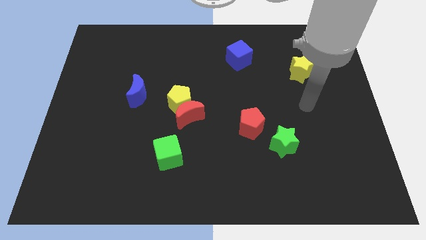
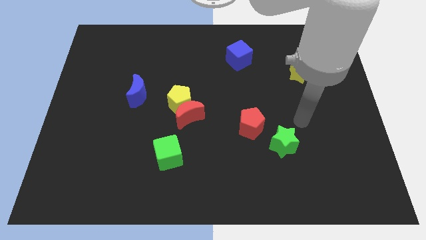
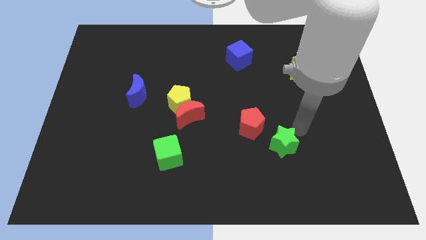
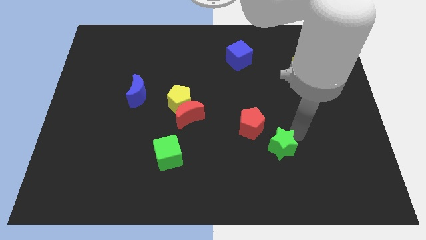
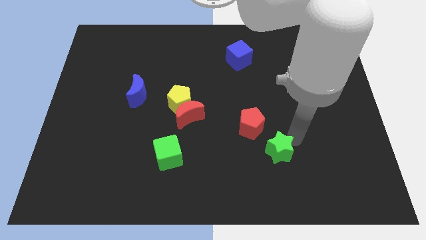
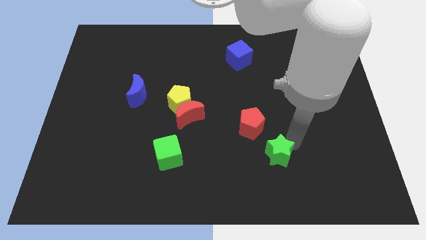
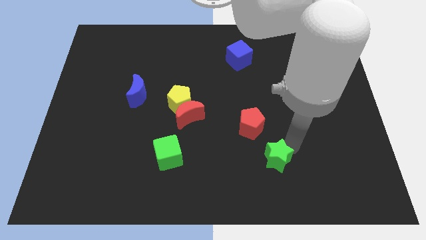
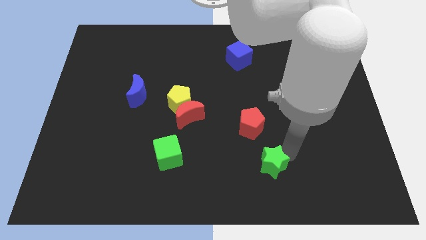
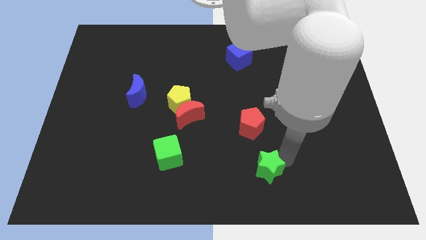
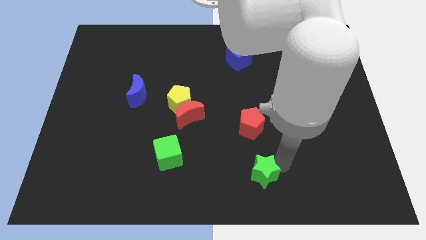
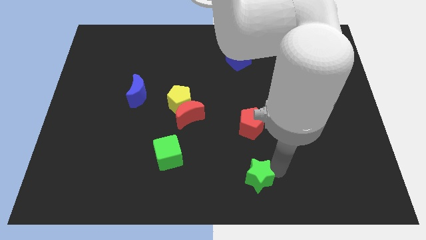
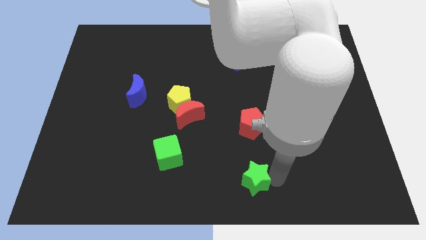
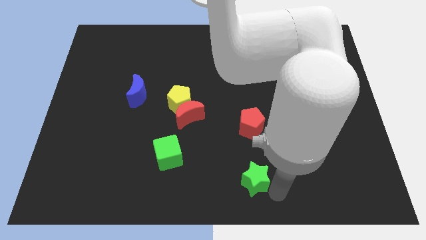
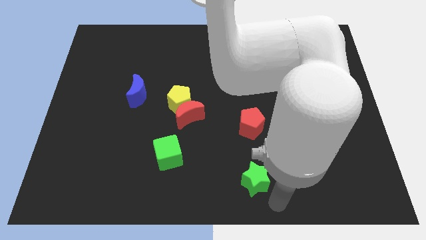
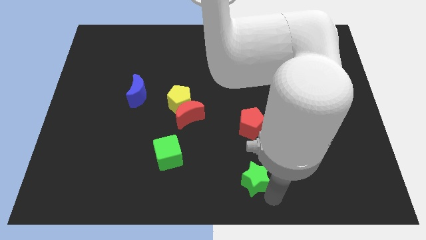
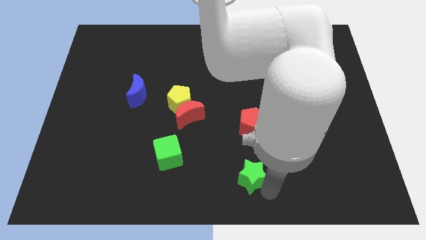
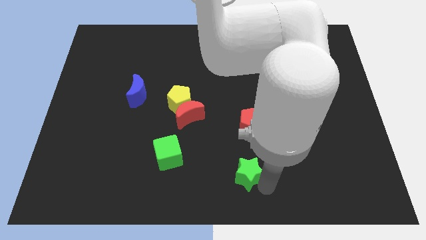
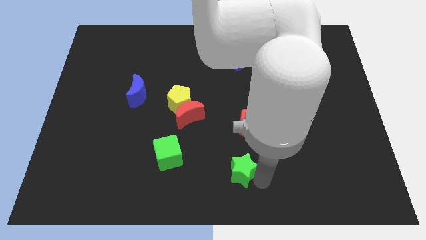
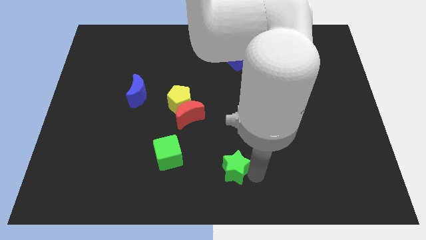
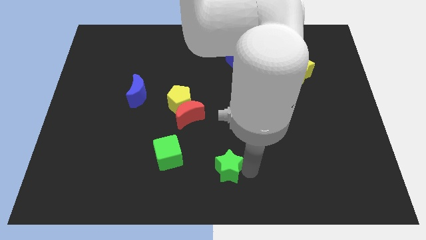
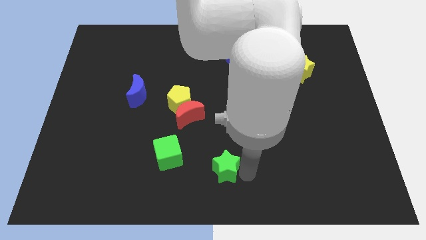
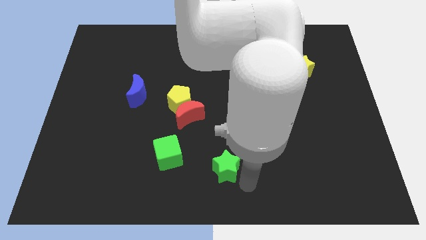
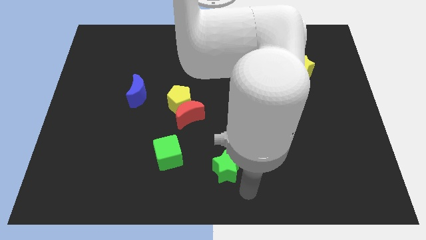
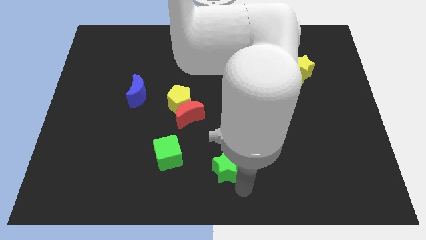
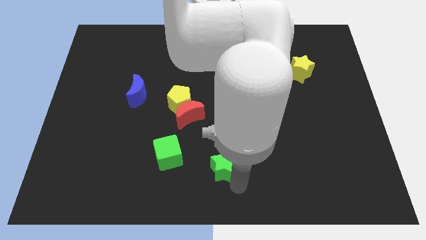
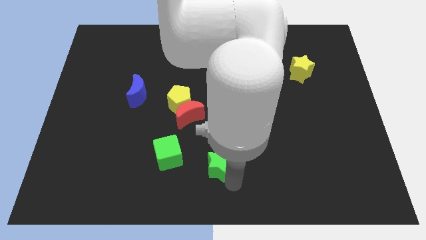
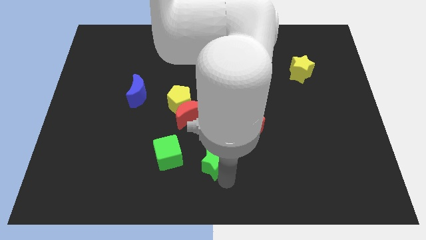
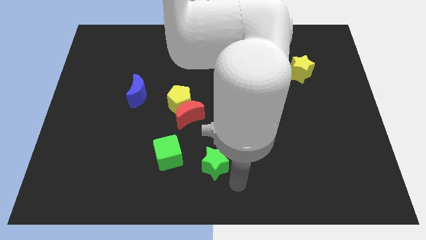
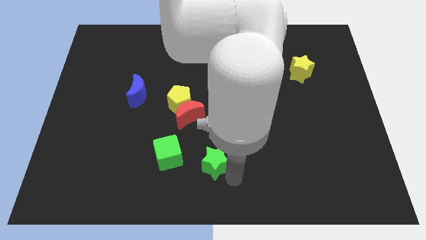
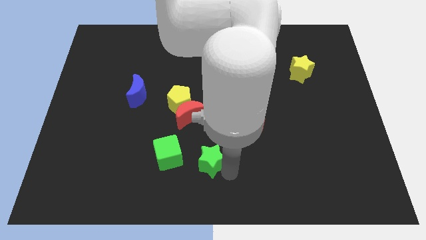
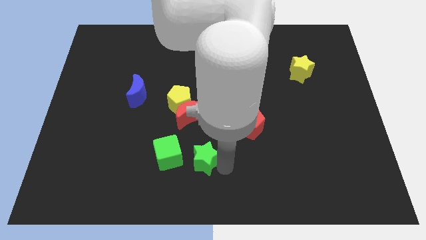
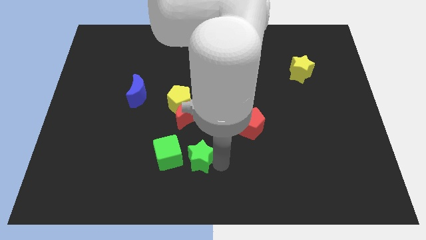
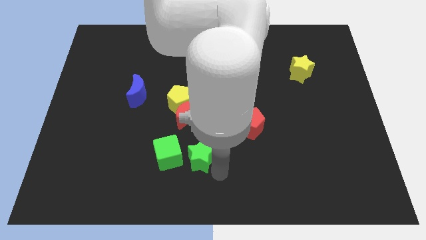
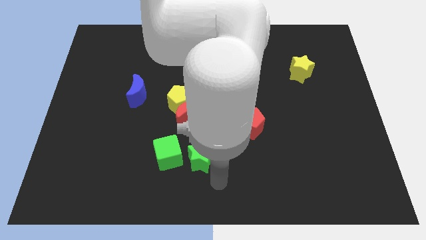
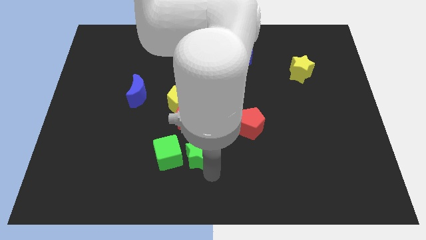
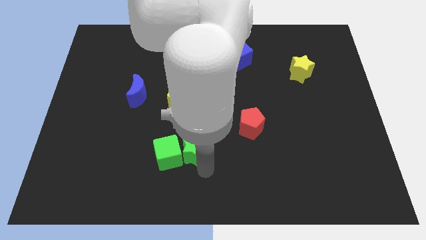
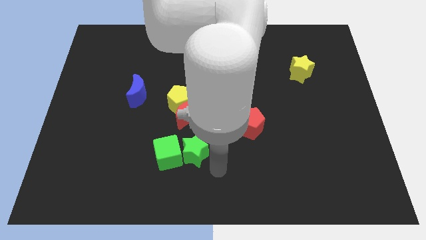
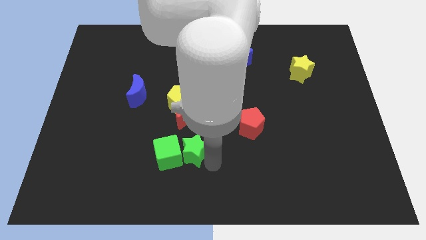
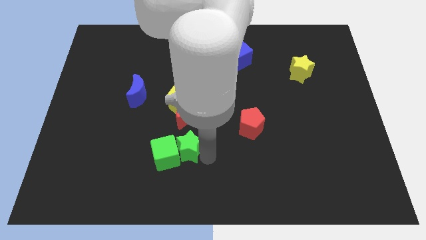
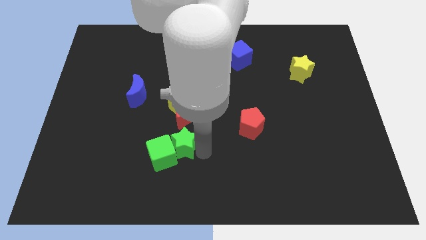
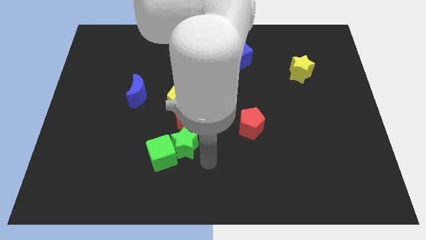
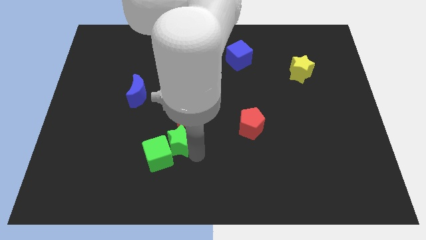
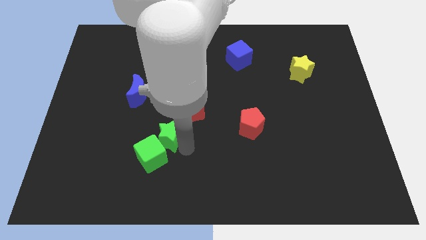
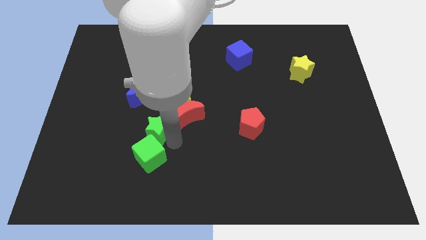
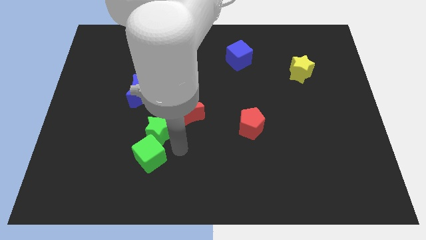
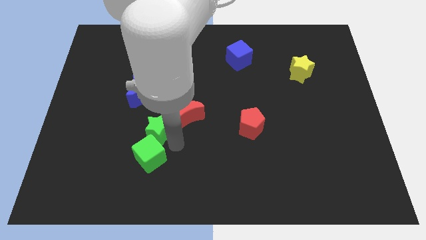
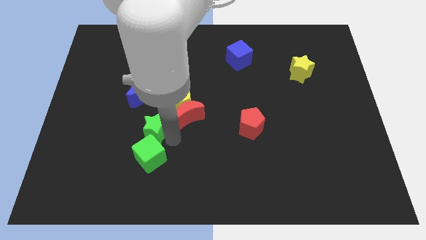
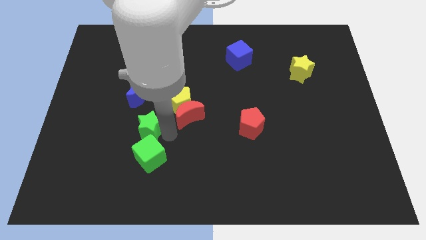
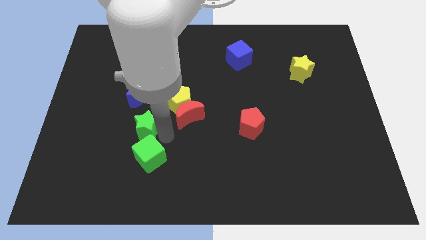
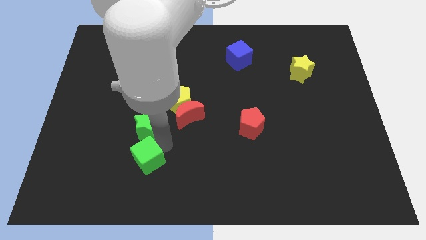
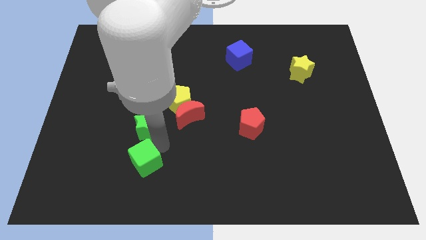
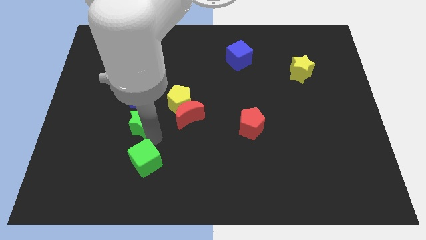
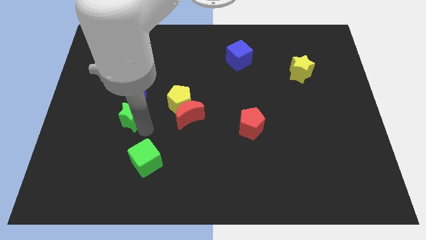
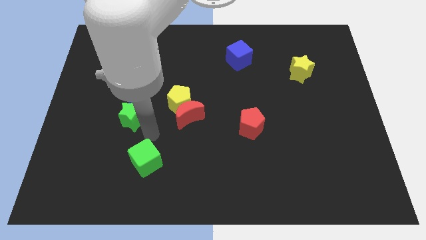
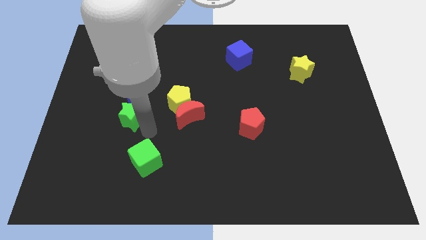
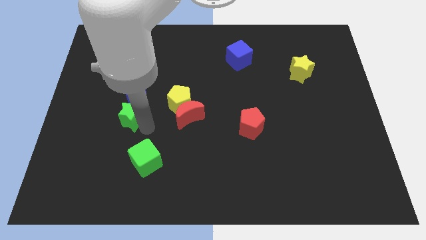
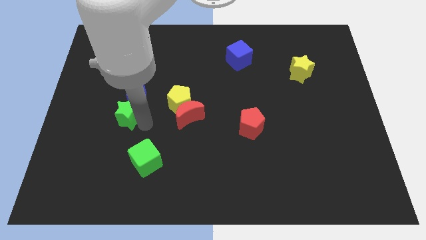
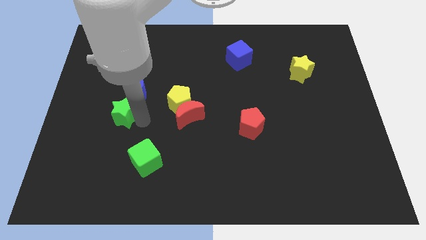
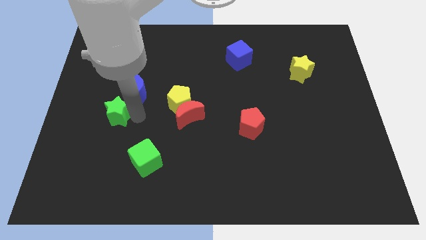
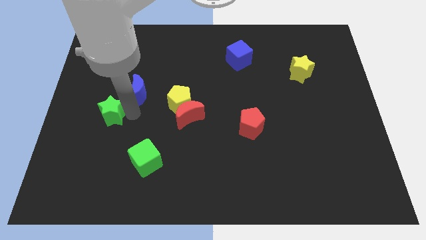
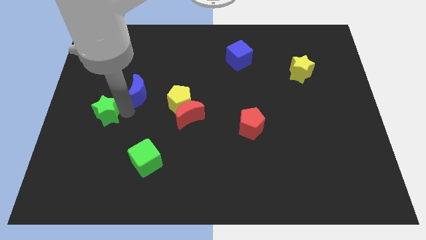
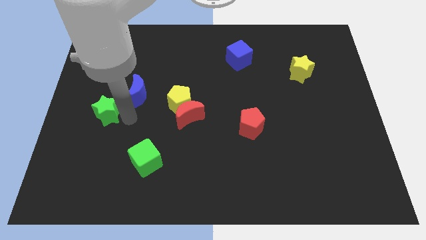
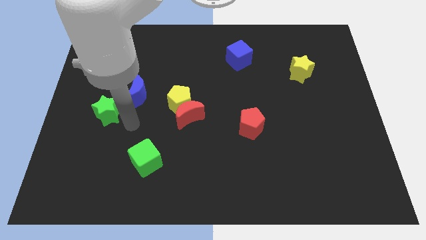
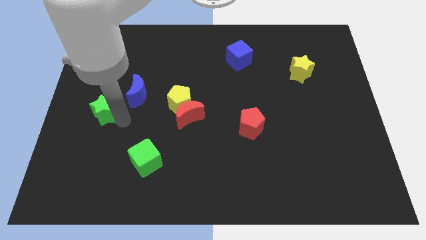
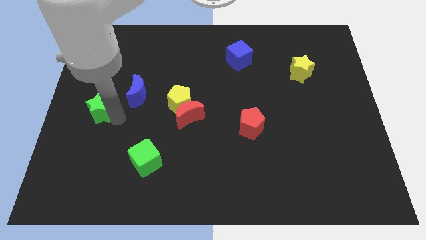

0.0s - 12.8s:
slide the green star to the left side of the board
